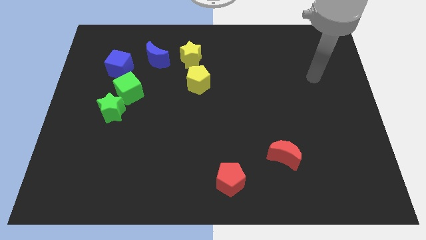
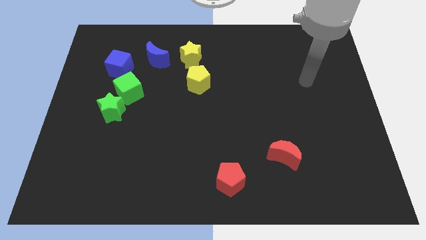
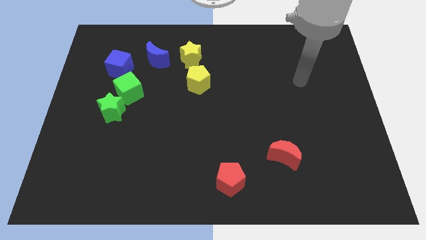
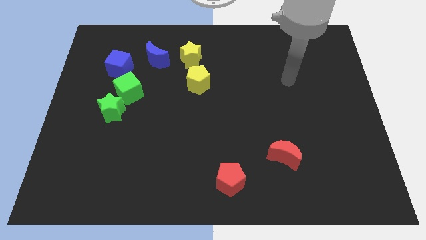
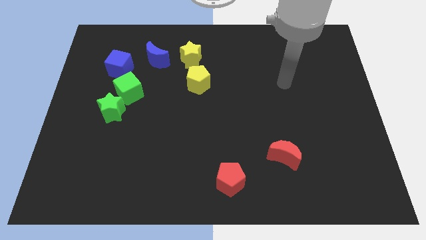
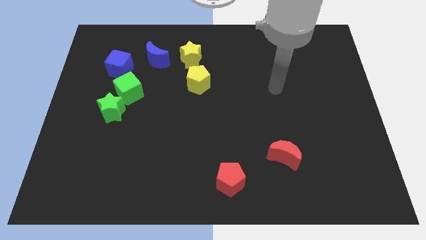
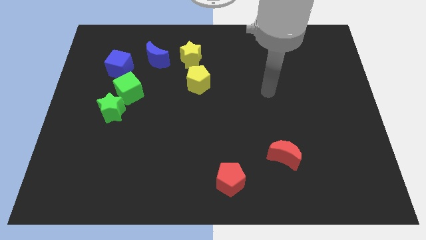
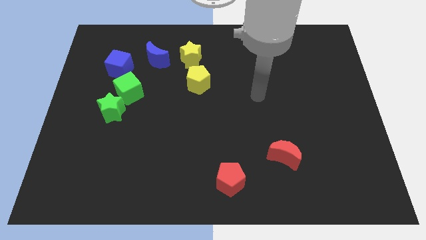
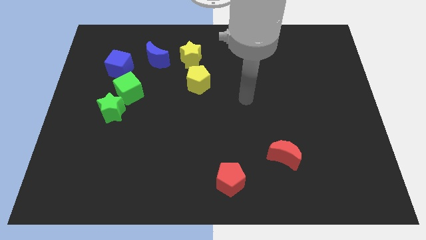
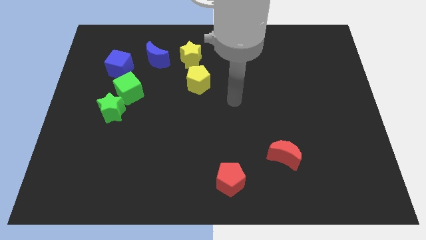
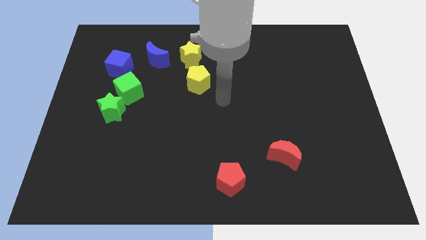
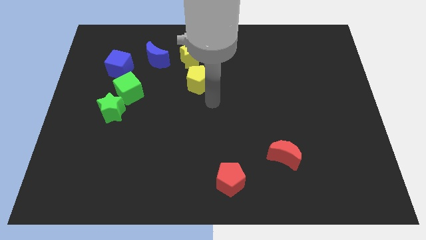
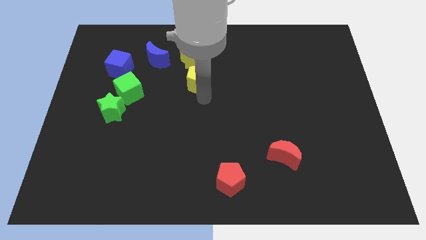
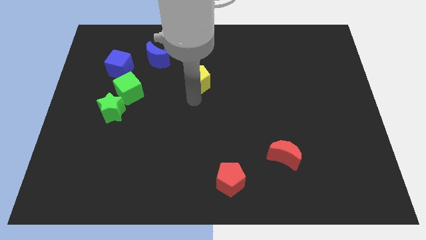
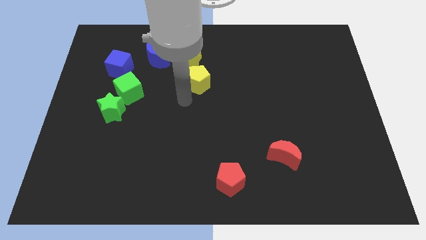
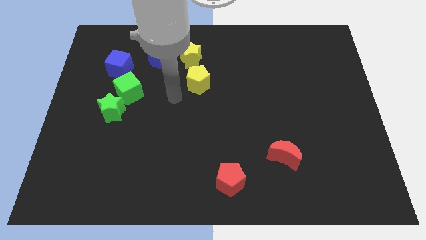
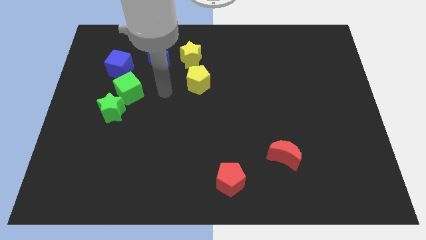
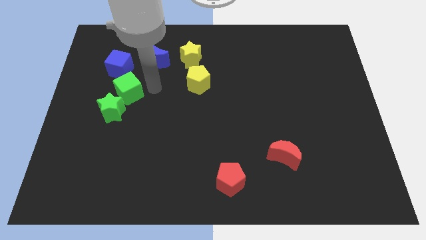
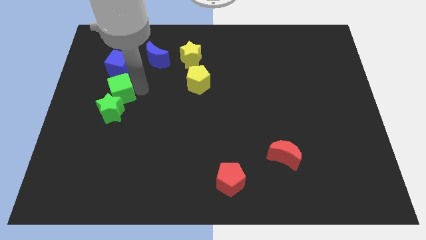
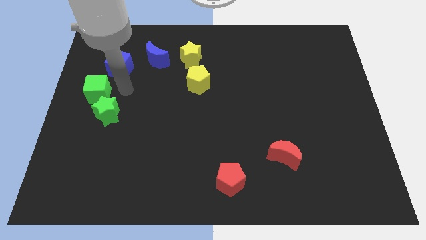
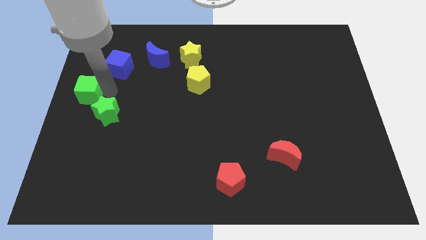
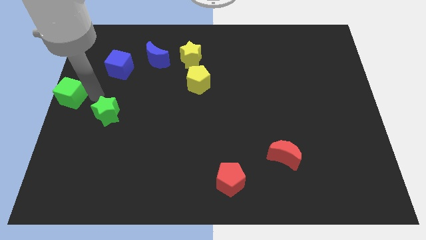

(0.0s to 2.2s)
move the green star away from the green cube

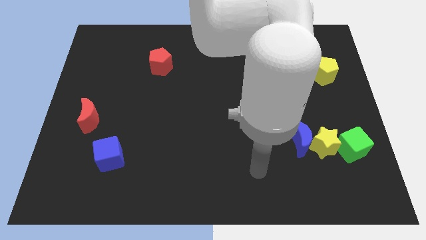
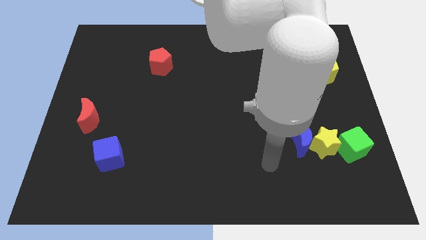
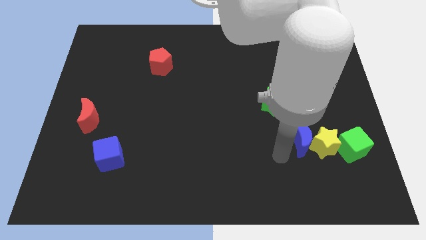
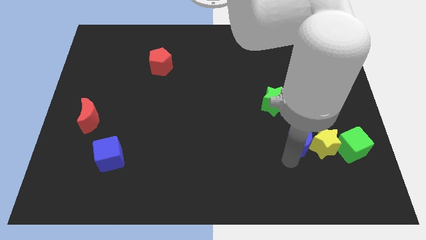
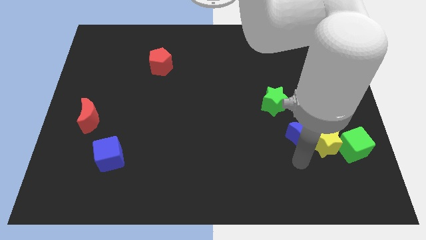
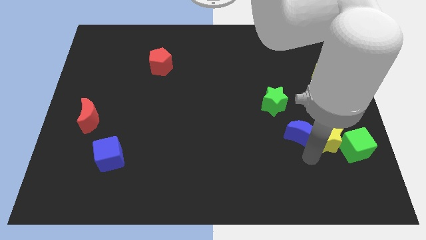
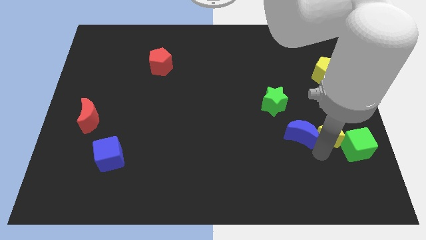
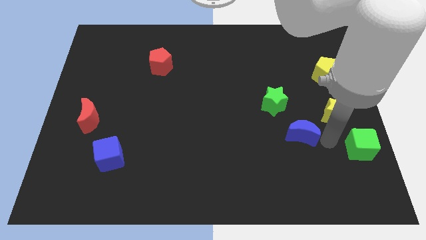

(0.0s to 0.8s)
pull the blue moon apart from the yellow star

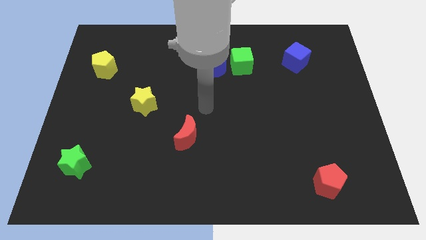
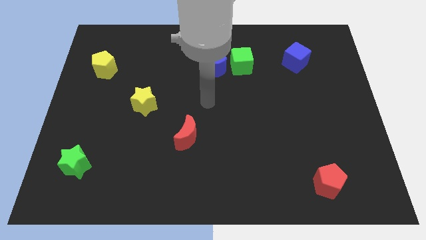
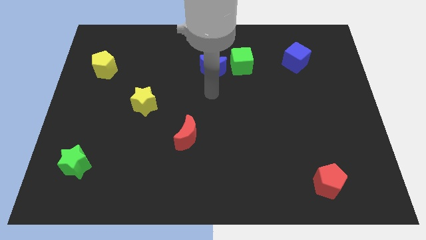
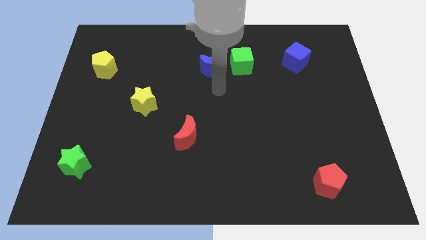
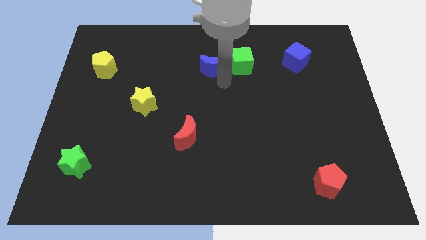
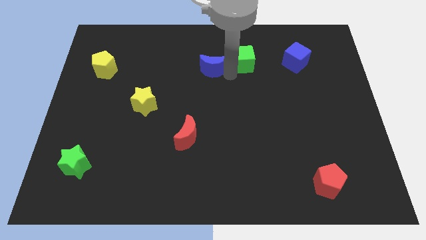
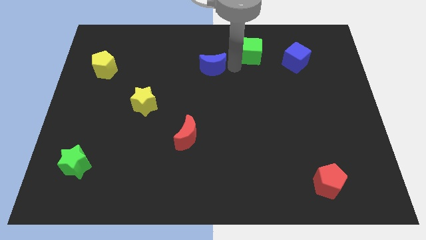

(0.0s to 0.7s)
move the blue moon away from the green cube

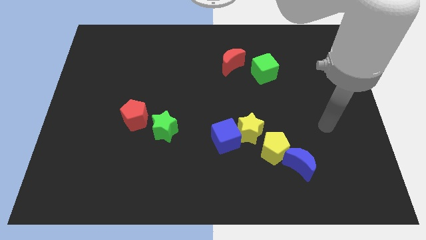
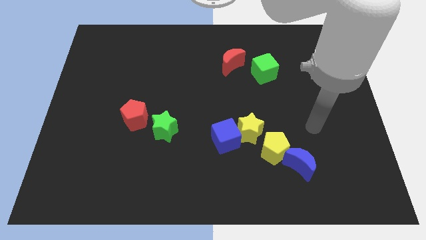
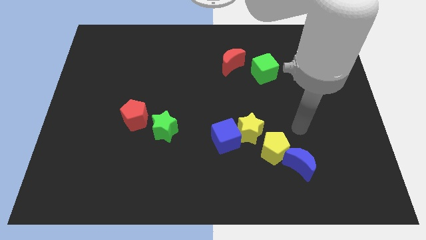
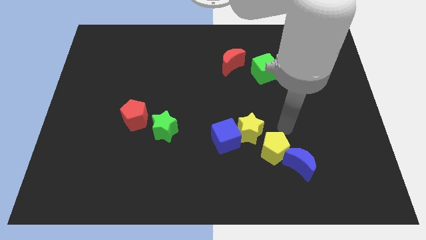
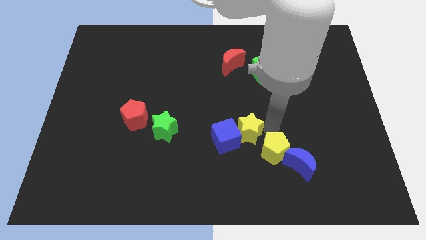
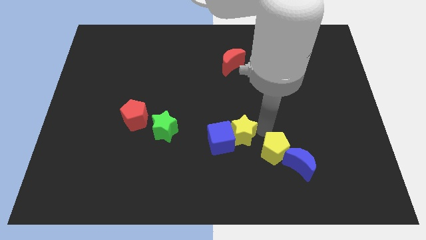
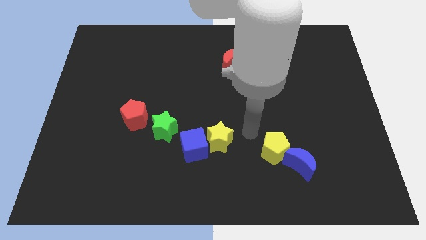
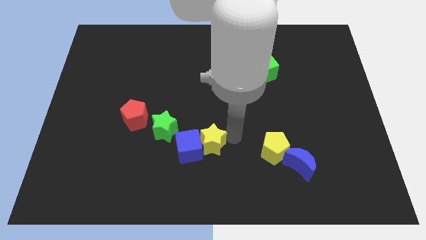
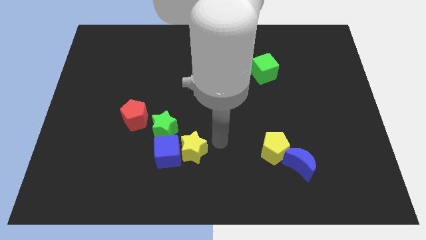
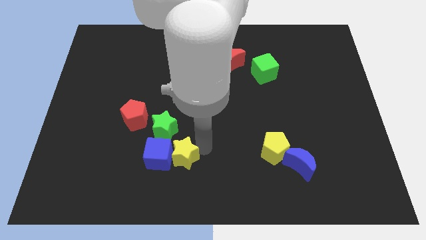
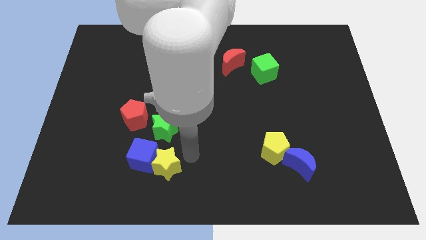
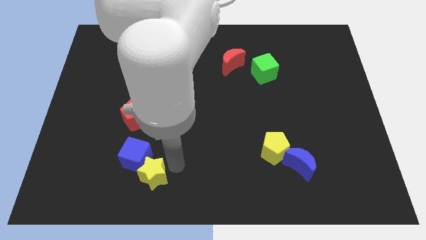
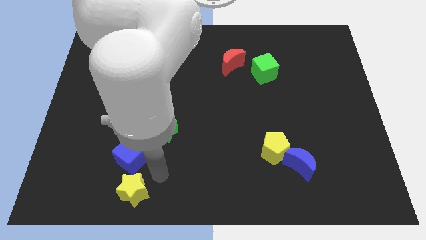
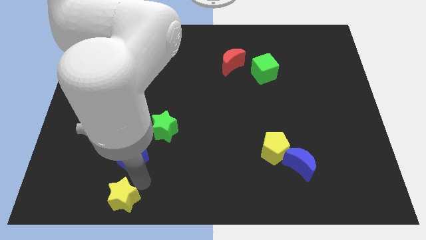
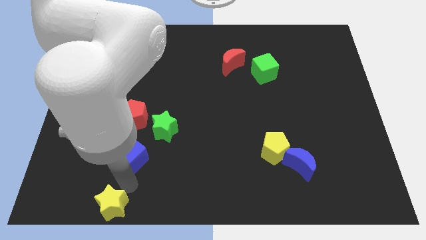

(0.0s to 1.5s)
move the blue cube away from the yellow star

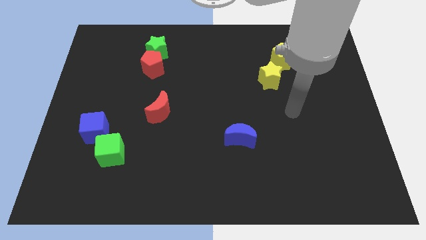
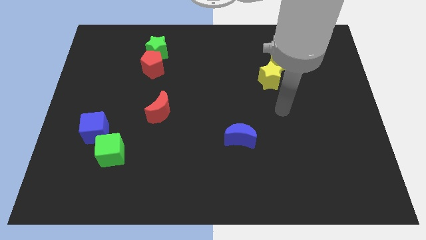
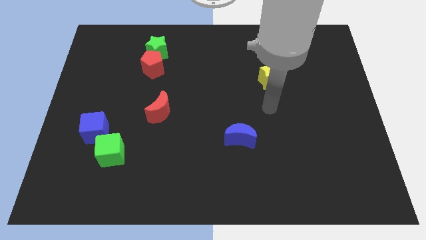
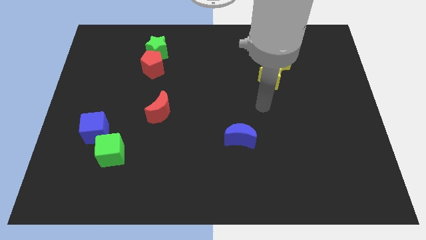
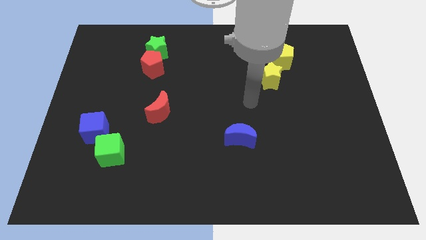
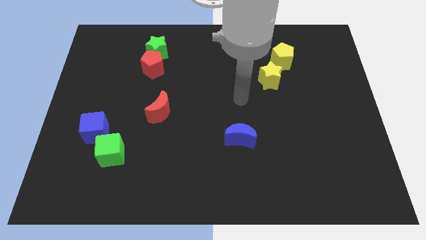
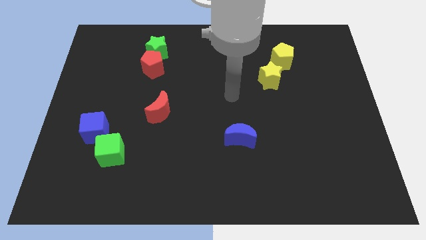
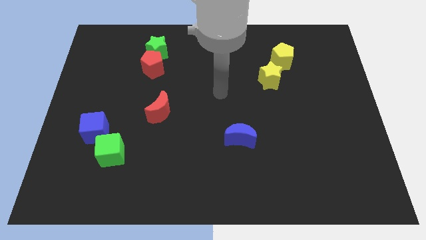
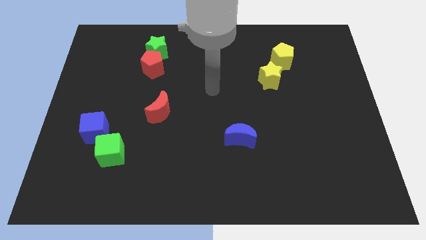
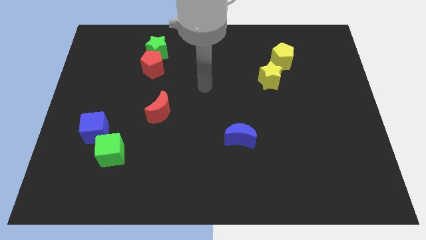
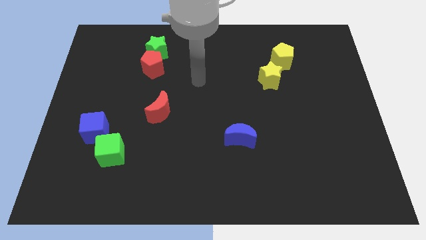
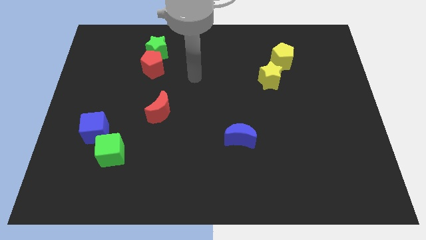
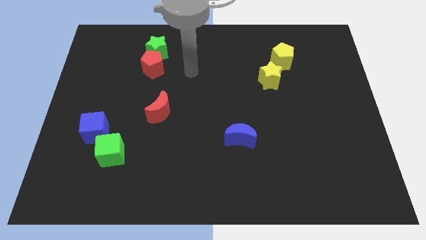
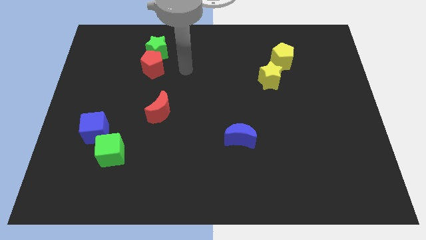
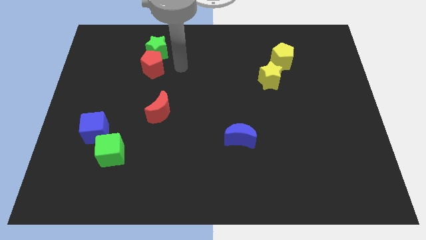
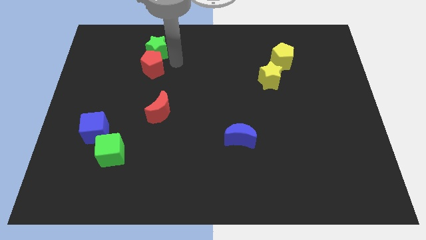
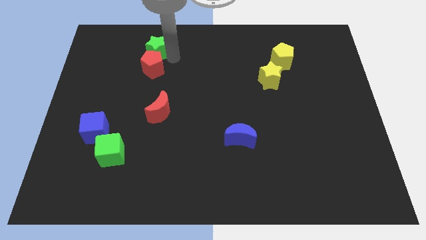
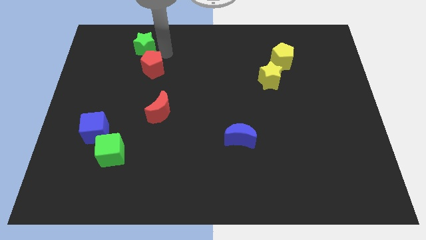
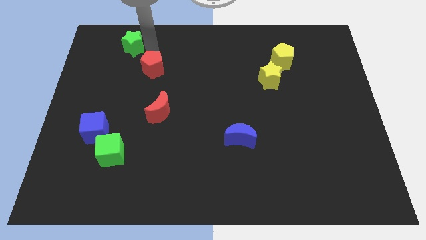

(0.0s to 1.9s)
separate the red pentagon from the green star

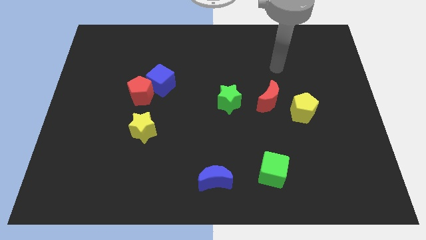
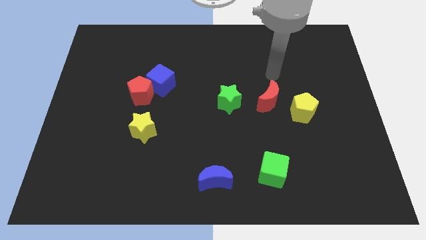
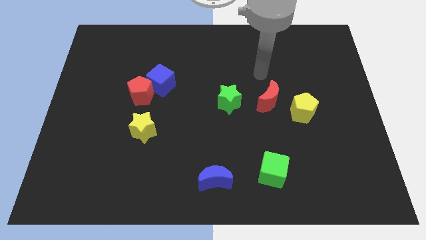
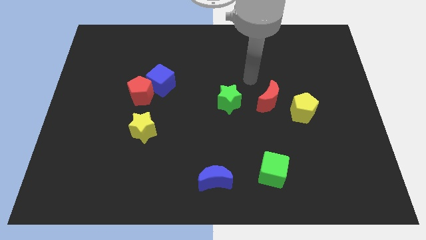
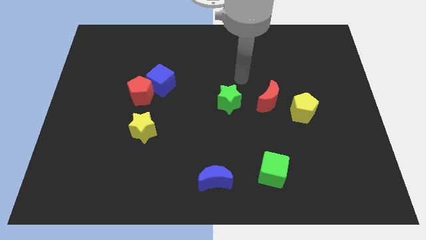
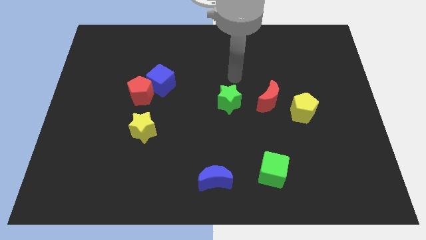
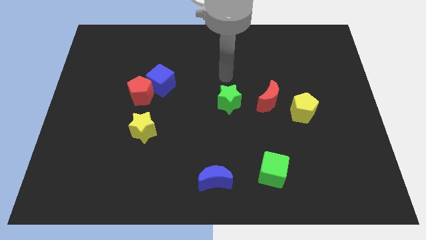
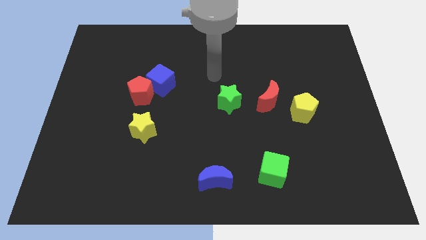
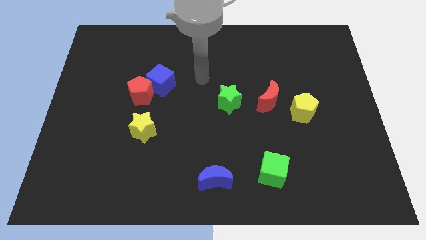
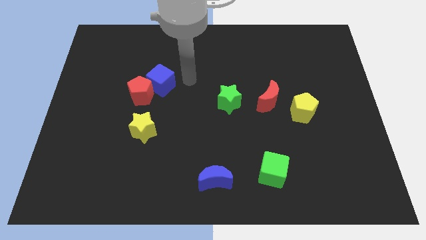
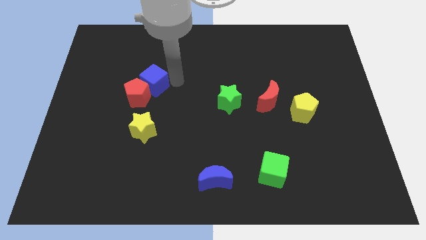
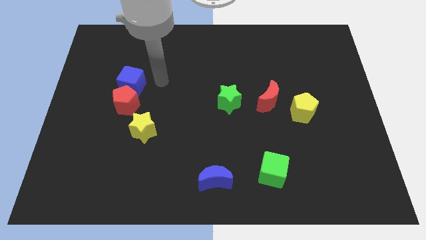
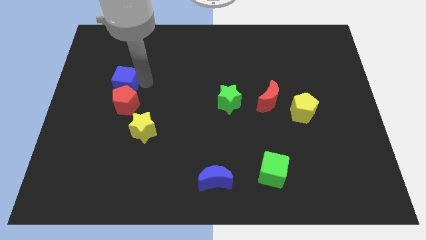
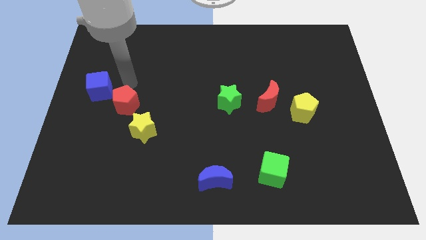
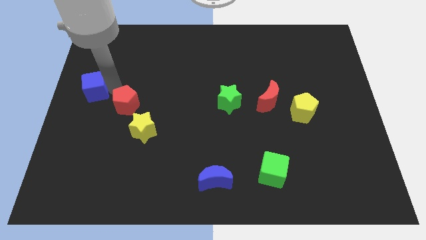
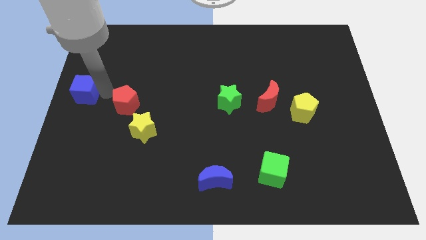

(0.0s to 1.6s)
pull the red pentagon apart from the blue cube

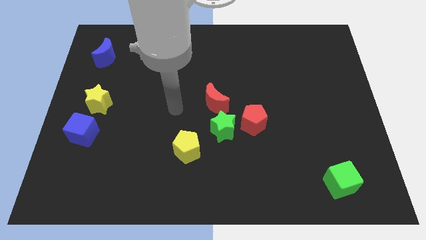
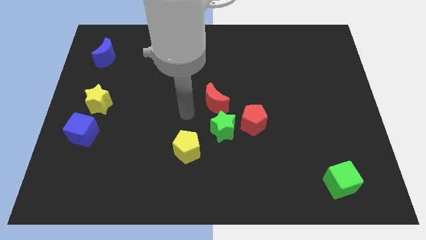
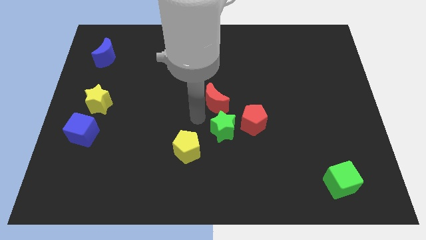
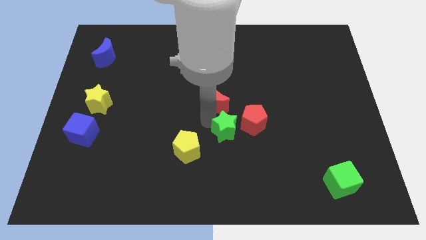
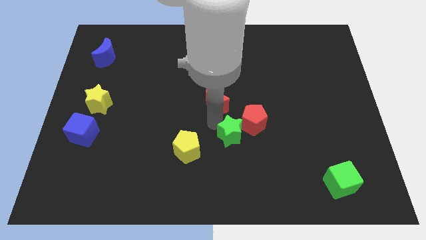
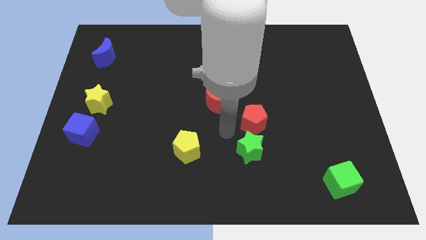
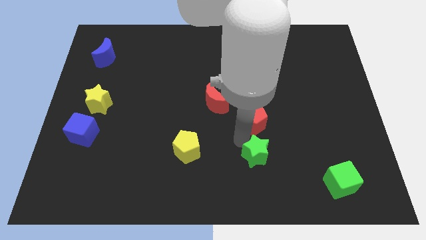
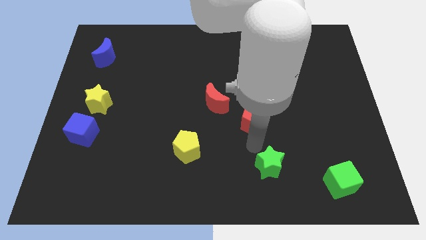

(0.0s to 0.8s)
pull the red pentagon apart from the green star

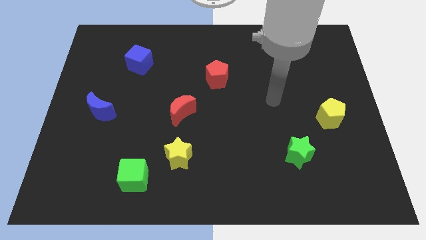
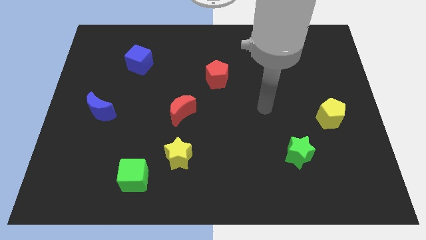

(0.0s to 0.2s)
separate the green cube from the yellow star
